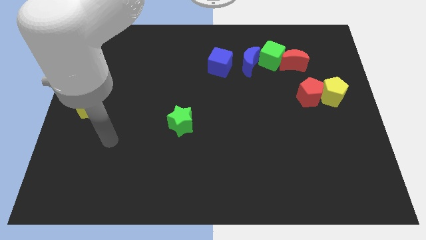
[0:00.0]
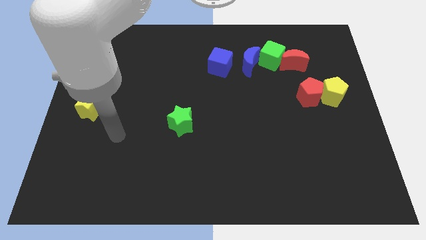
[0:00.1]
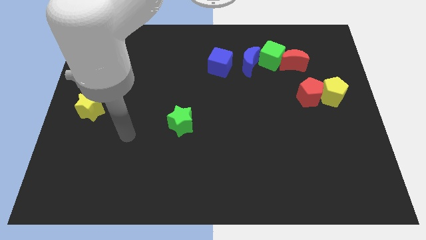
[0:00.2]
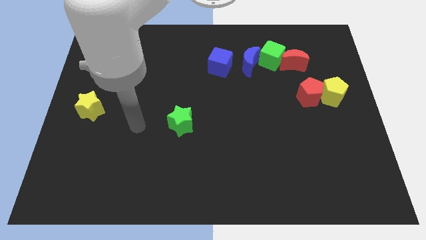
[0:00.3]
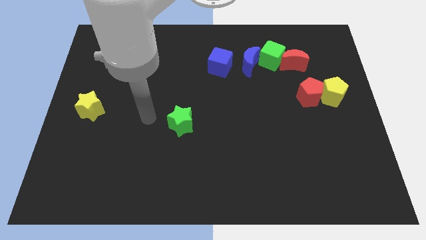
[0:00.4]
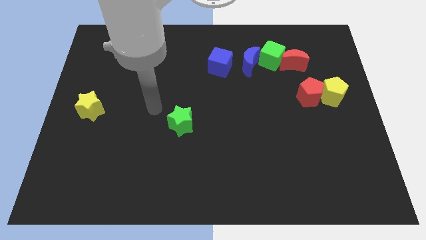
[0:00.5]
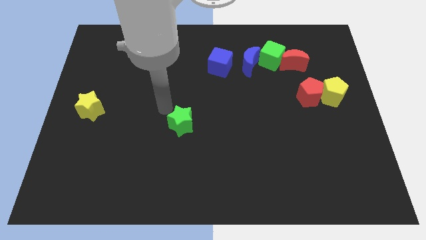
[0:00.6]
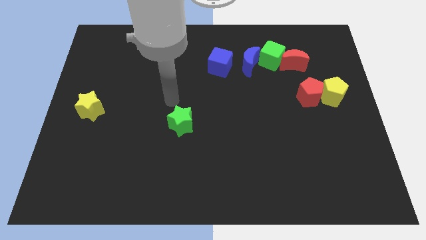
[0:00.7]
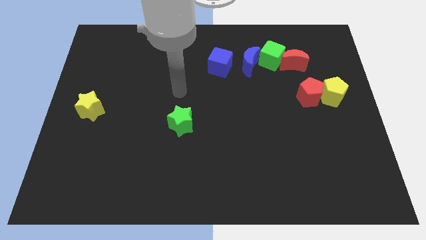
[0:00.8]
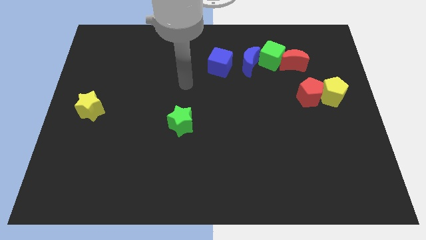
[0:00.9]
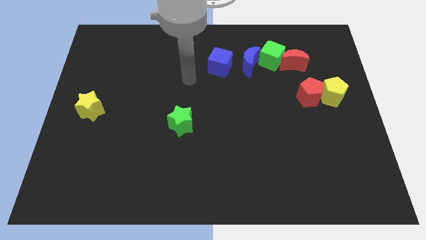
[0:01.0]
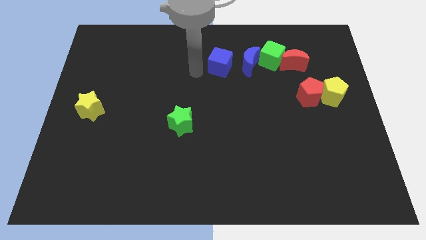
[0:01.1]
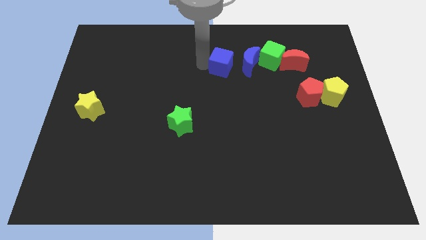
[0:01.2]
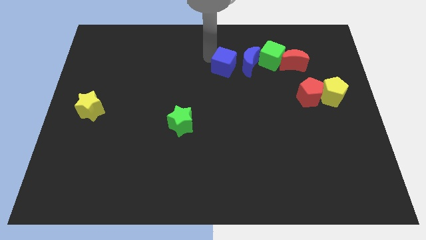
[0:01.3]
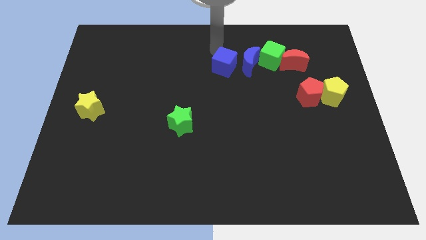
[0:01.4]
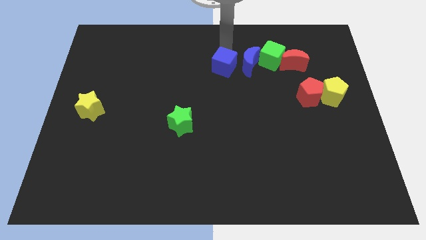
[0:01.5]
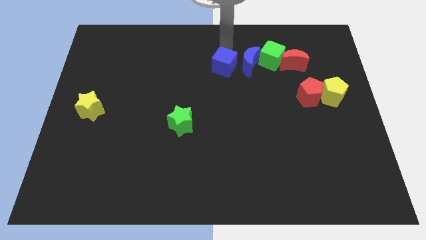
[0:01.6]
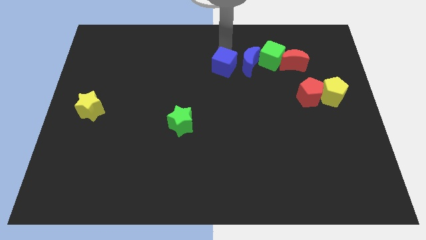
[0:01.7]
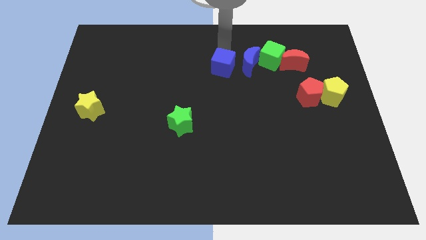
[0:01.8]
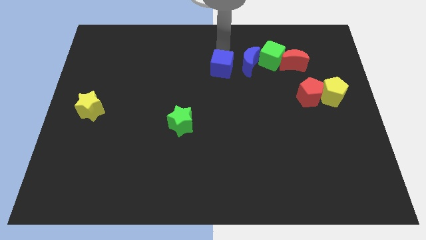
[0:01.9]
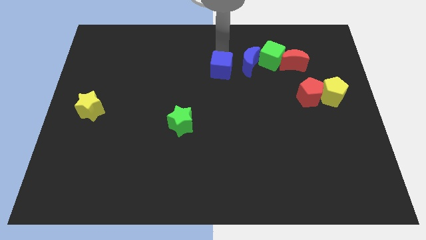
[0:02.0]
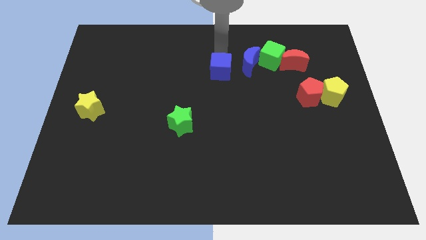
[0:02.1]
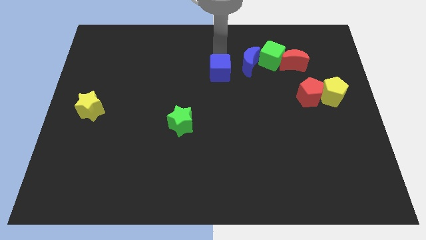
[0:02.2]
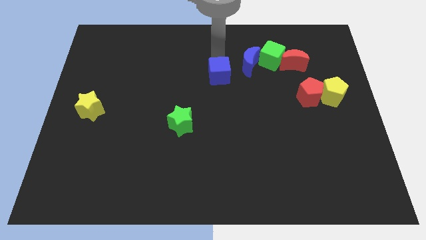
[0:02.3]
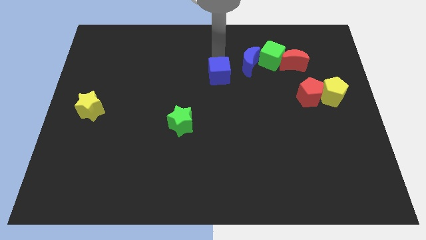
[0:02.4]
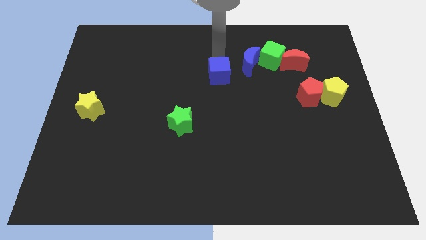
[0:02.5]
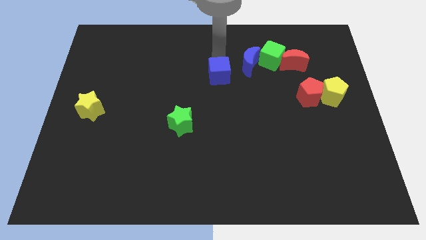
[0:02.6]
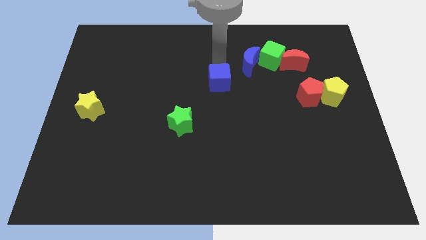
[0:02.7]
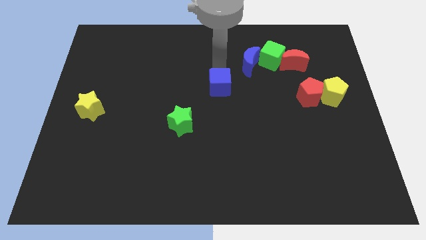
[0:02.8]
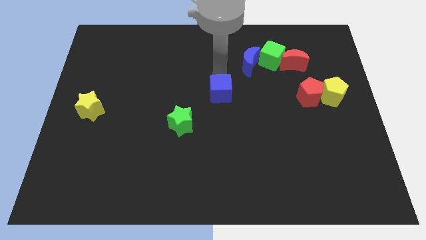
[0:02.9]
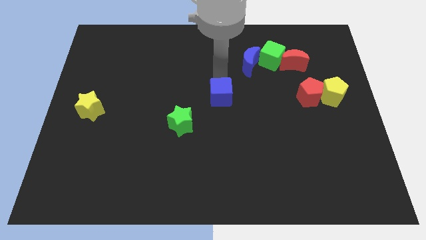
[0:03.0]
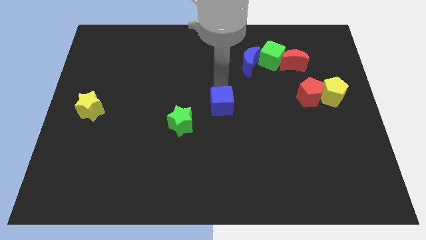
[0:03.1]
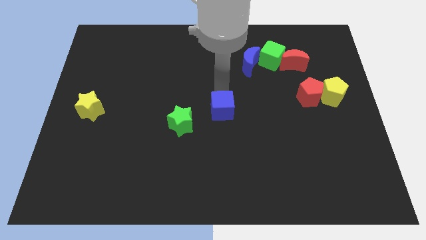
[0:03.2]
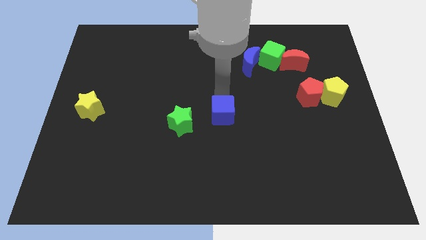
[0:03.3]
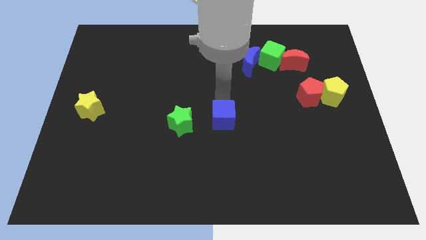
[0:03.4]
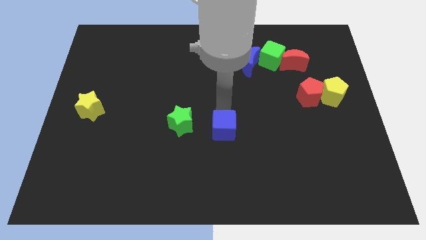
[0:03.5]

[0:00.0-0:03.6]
slide the blue cube downwards

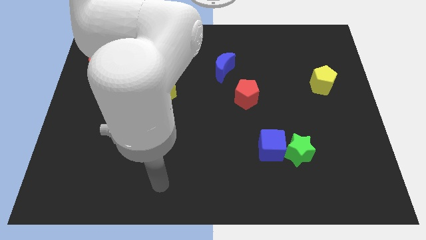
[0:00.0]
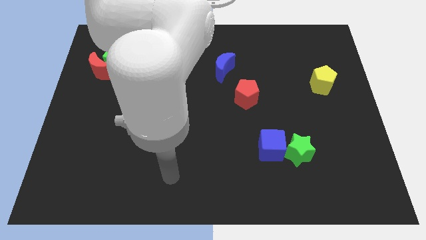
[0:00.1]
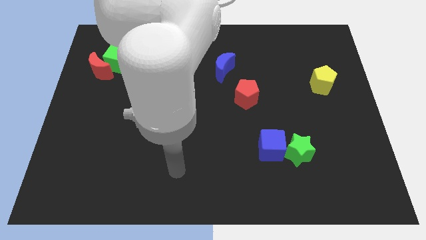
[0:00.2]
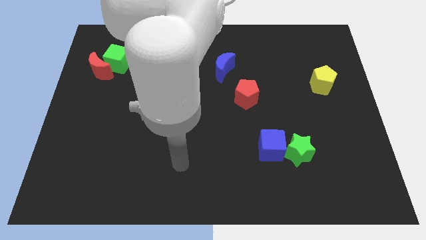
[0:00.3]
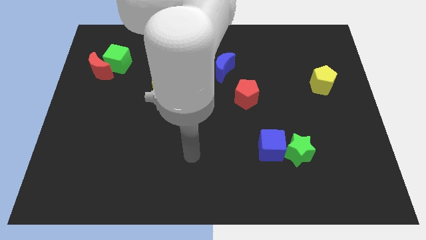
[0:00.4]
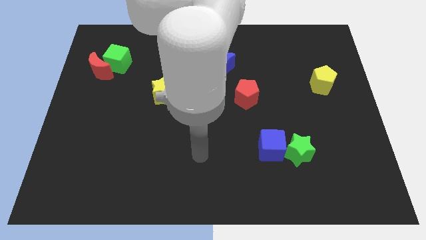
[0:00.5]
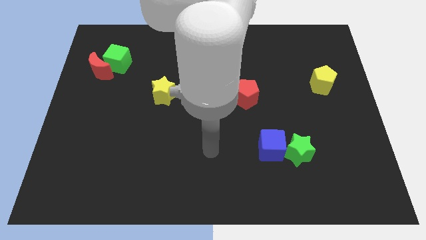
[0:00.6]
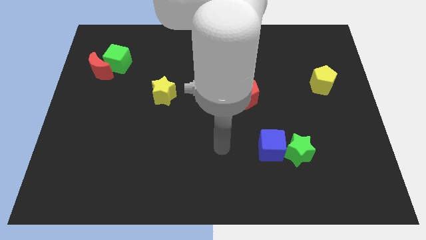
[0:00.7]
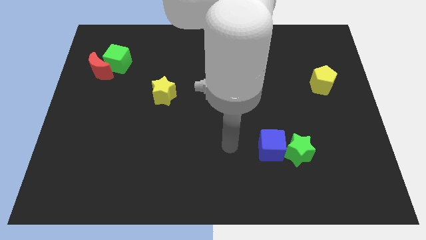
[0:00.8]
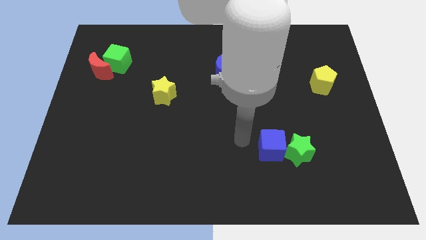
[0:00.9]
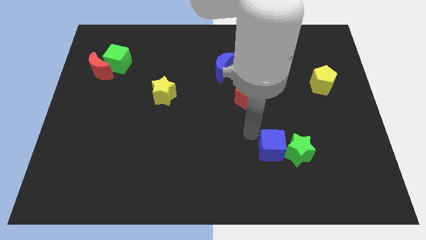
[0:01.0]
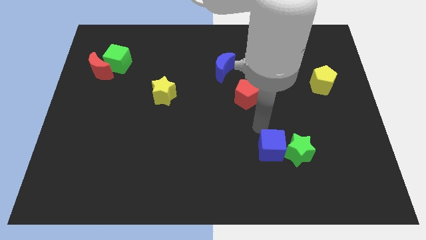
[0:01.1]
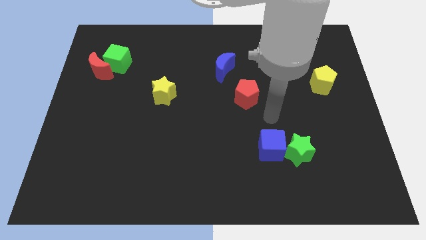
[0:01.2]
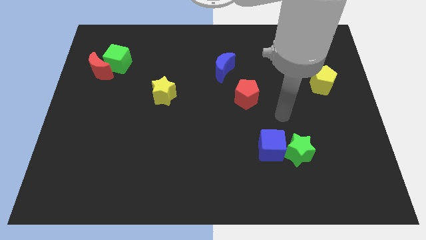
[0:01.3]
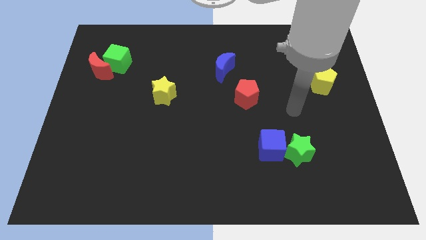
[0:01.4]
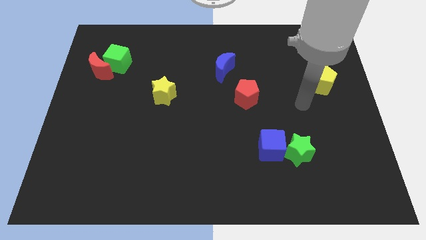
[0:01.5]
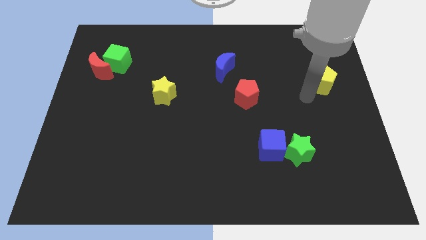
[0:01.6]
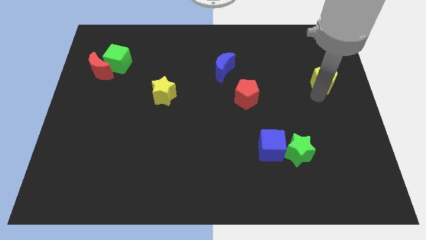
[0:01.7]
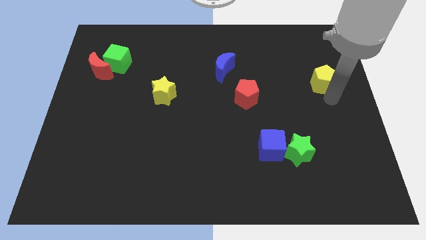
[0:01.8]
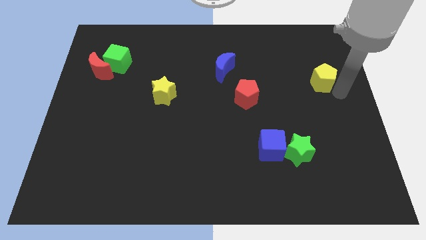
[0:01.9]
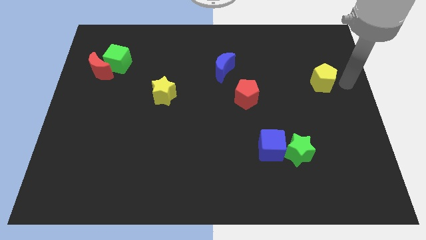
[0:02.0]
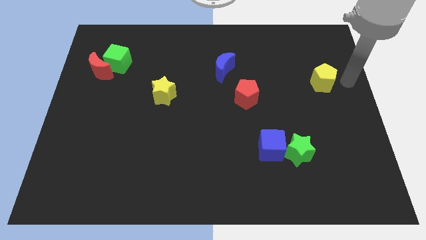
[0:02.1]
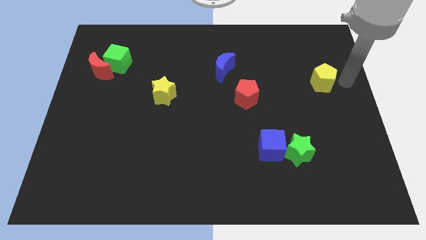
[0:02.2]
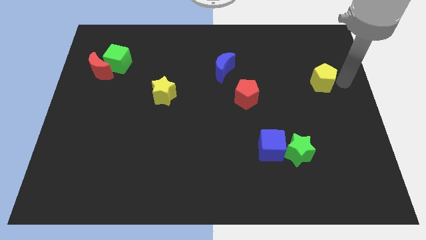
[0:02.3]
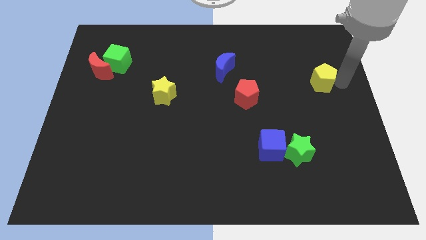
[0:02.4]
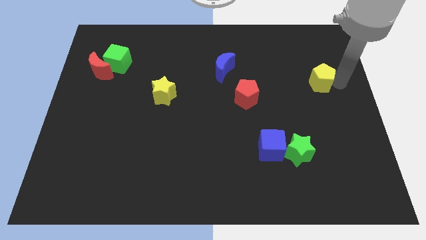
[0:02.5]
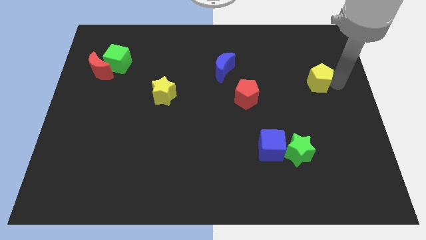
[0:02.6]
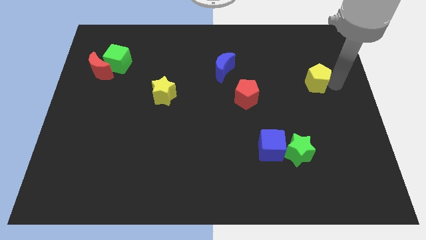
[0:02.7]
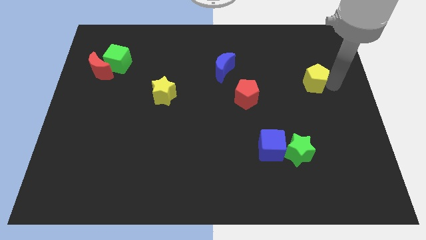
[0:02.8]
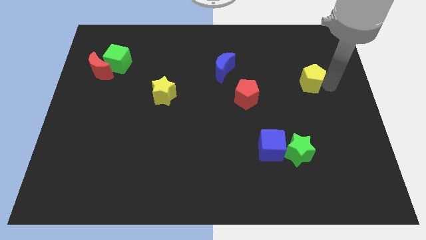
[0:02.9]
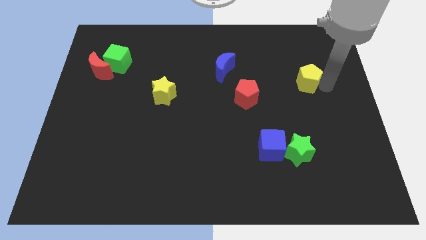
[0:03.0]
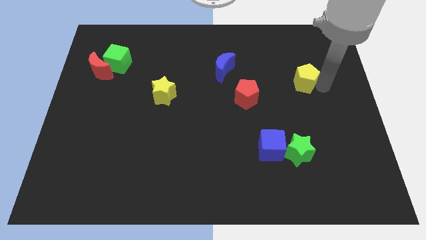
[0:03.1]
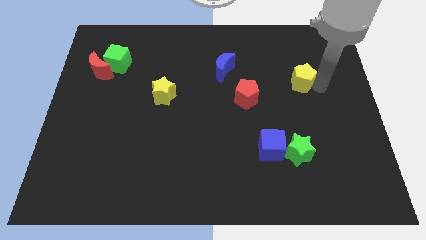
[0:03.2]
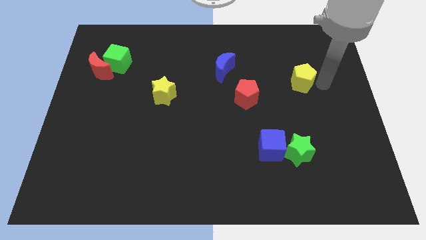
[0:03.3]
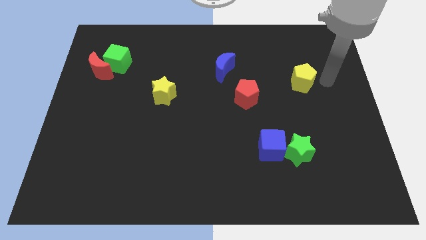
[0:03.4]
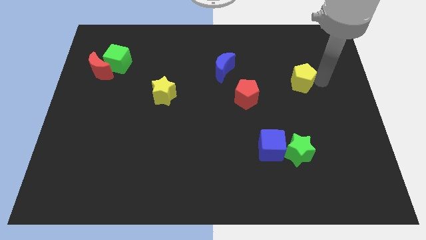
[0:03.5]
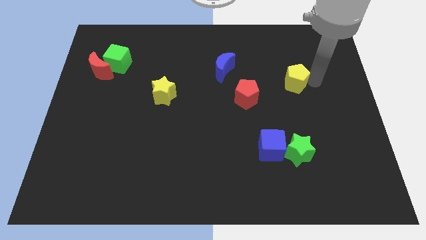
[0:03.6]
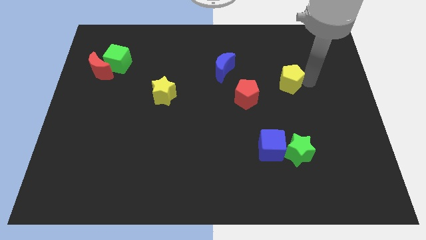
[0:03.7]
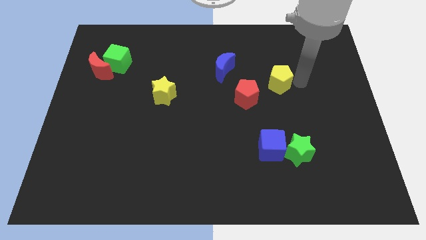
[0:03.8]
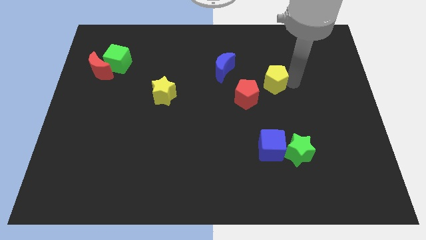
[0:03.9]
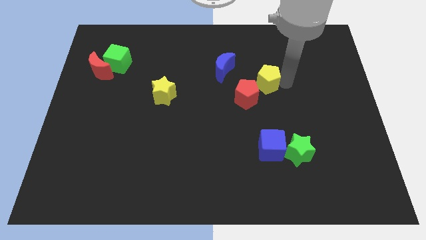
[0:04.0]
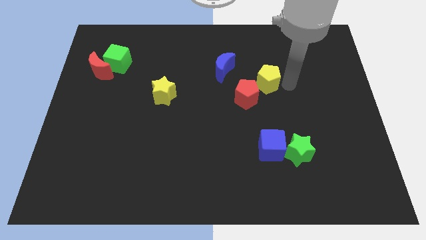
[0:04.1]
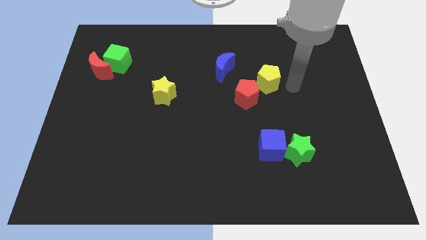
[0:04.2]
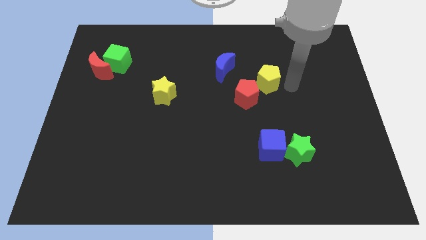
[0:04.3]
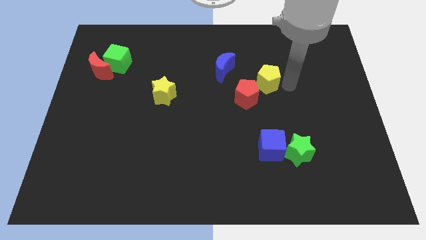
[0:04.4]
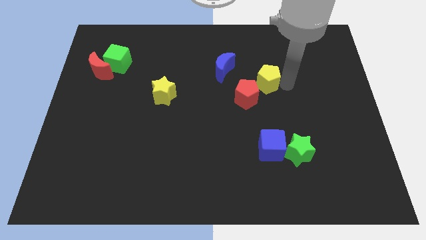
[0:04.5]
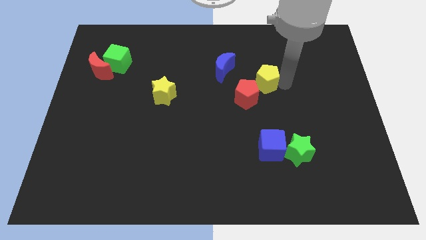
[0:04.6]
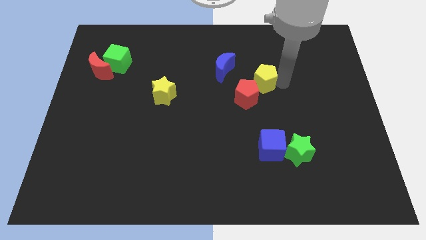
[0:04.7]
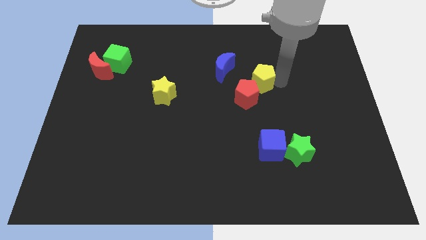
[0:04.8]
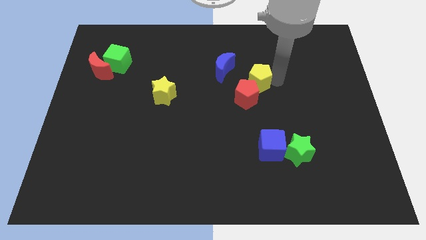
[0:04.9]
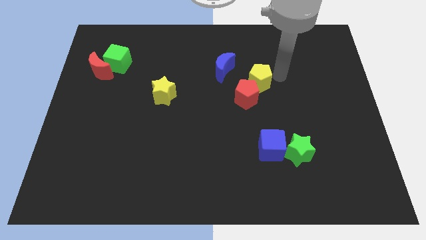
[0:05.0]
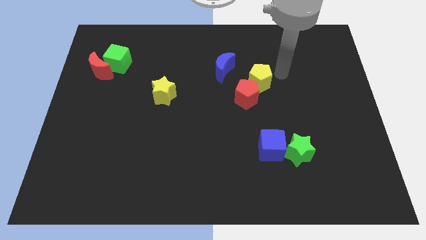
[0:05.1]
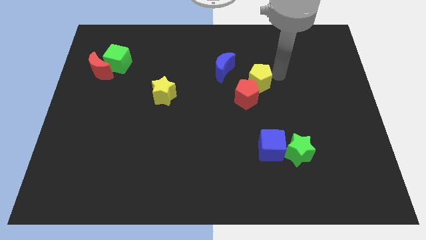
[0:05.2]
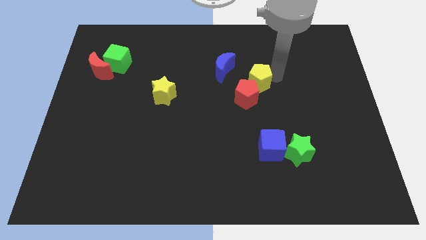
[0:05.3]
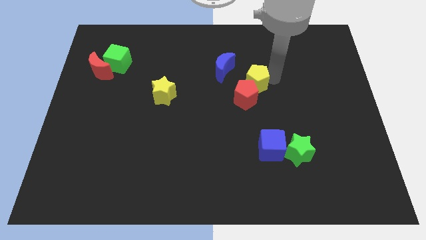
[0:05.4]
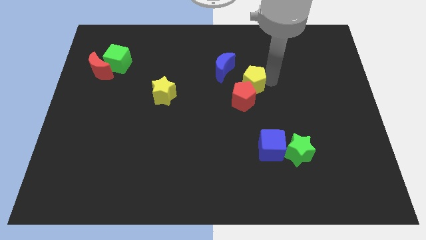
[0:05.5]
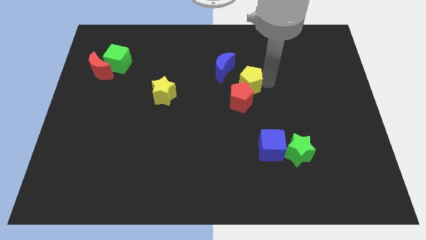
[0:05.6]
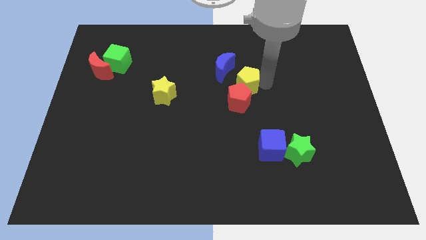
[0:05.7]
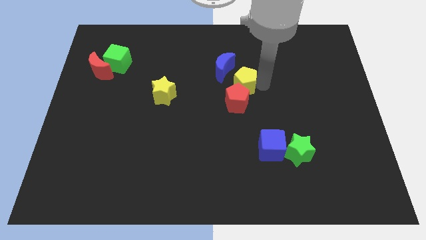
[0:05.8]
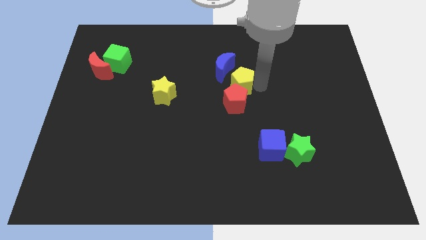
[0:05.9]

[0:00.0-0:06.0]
slide the yellow pentagon to the left
